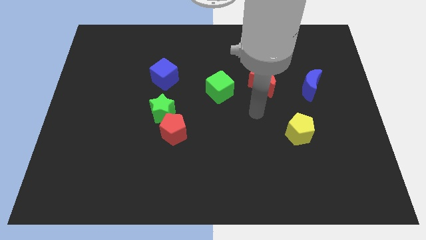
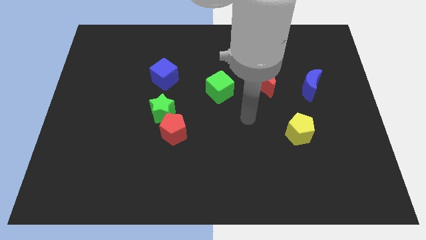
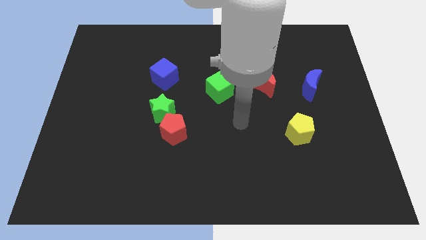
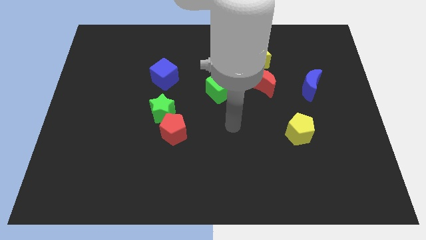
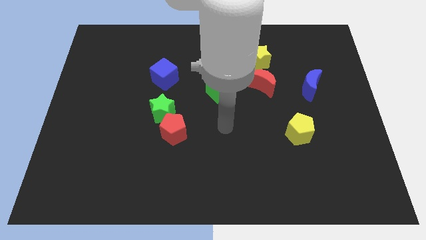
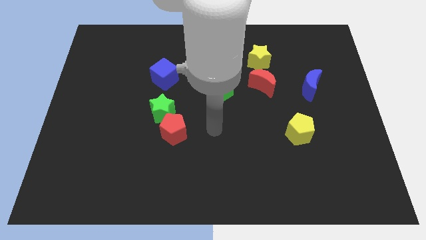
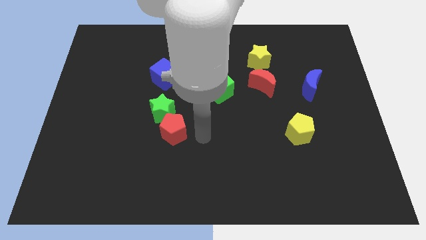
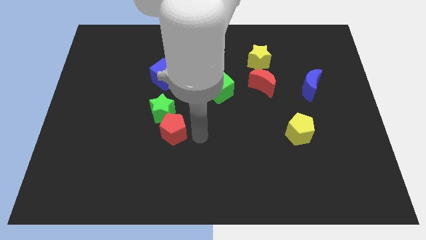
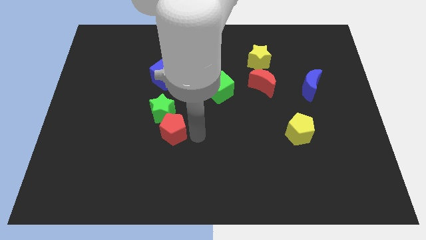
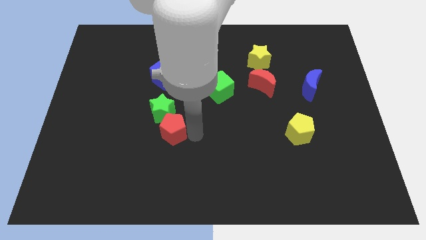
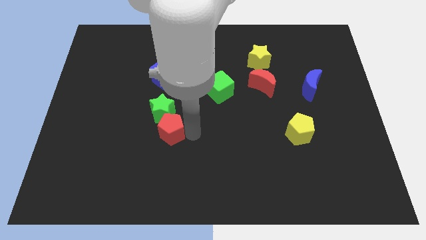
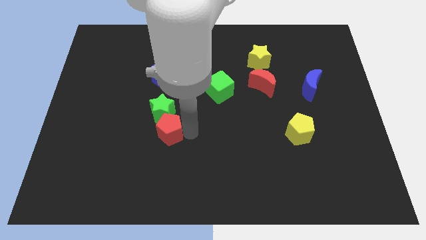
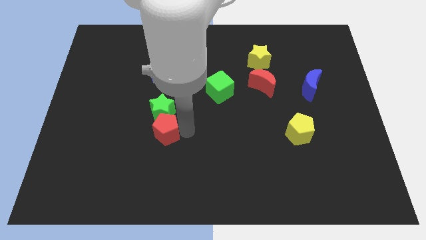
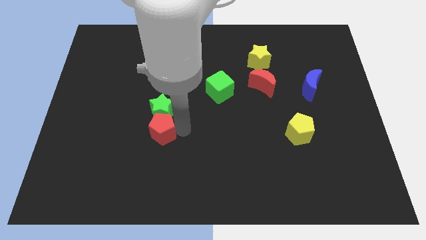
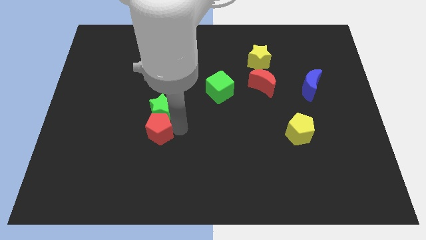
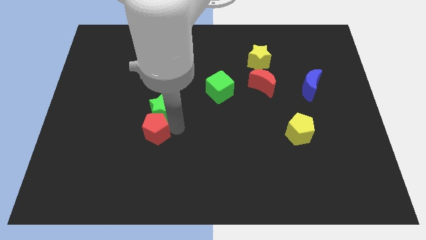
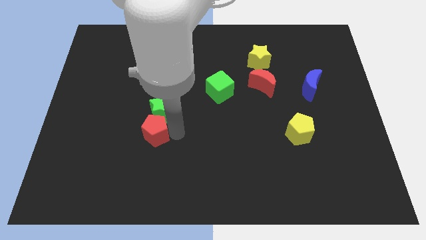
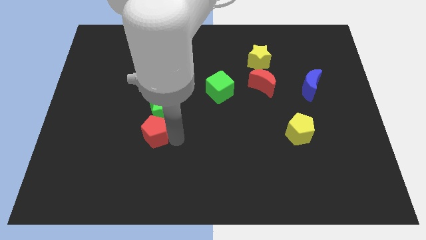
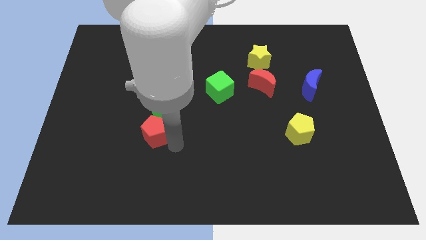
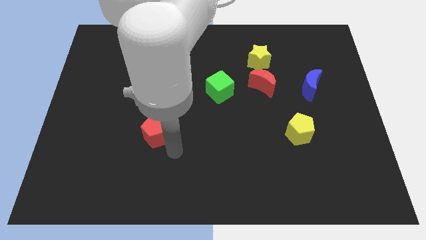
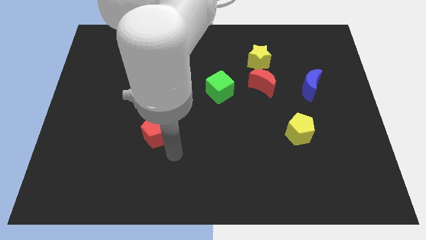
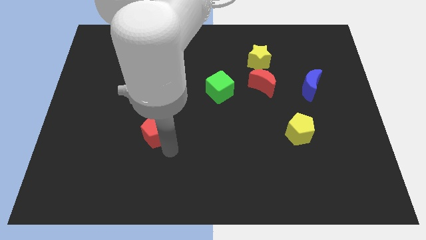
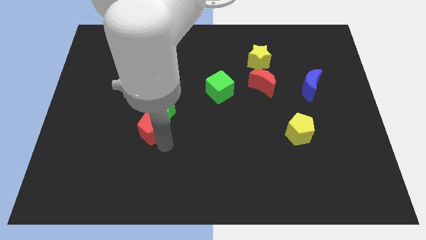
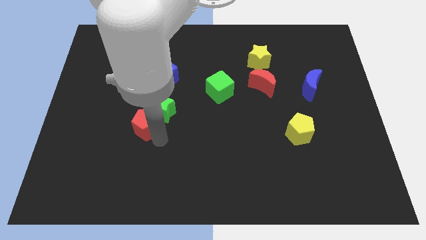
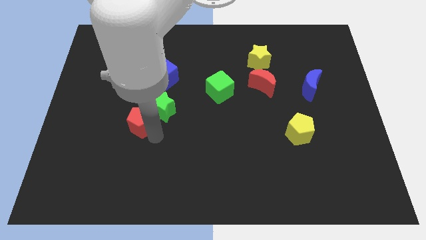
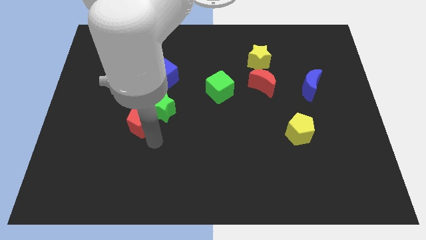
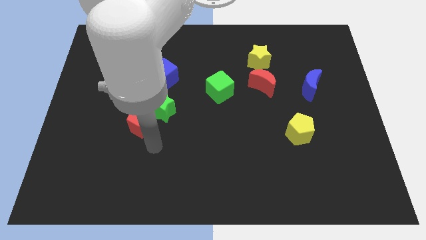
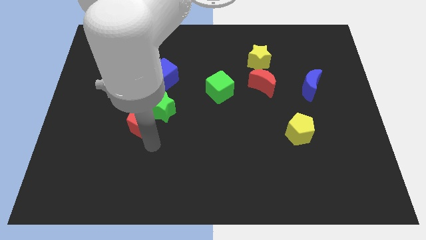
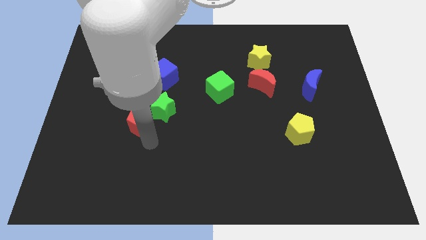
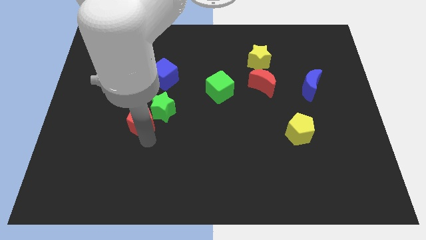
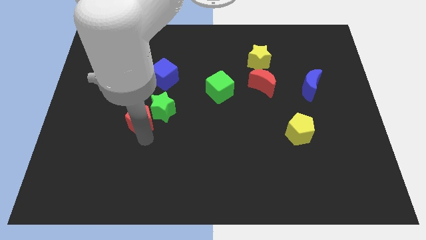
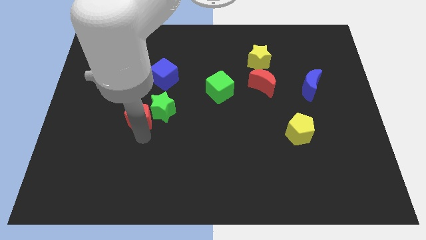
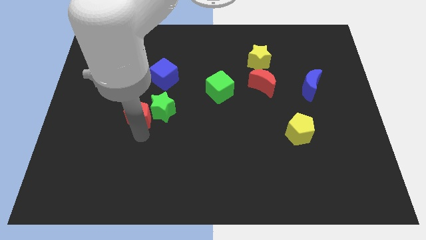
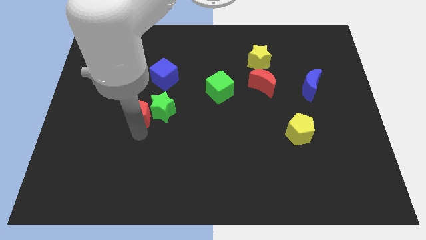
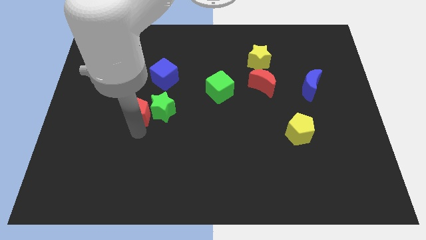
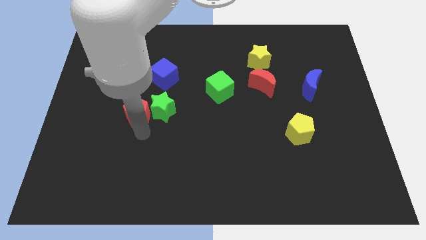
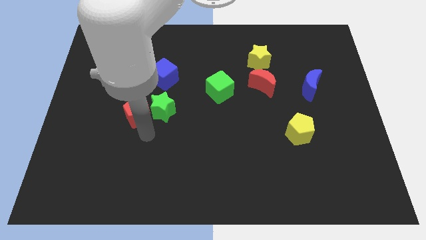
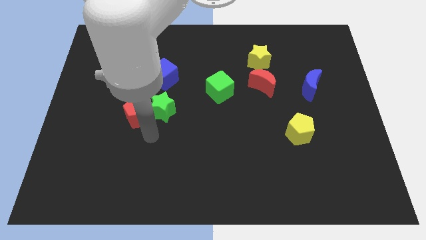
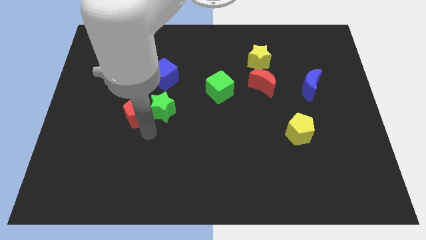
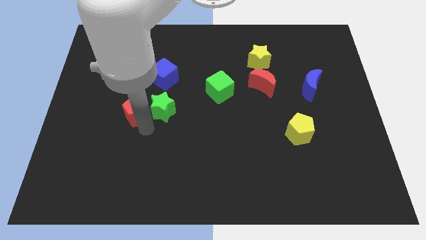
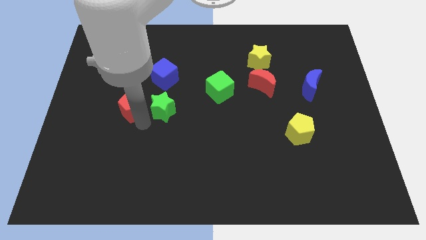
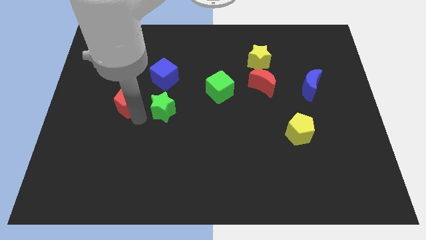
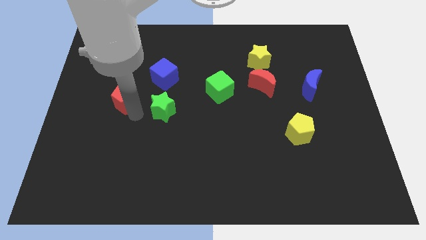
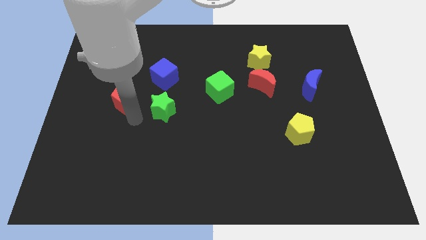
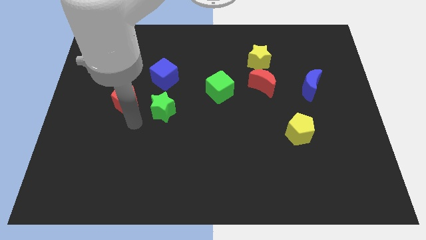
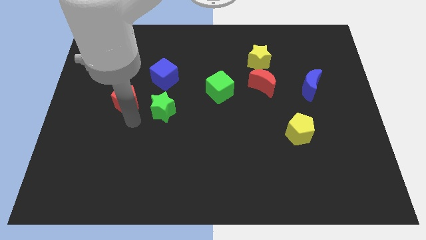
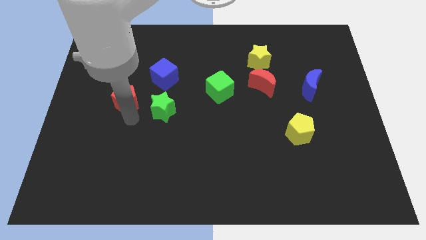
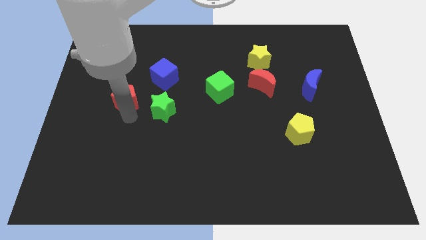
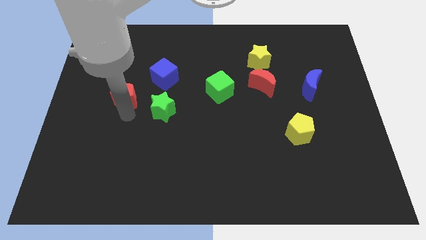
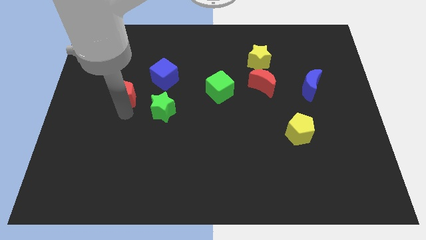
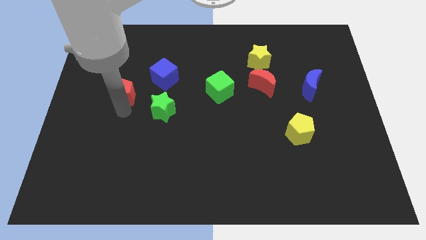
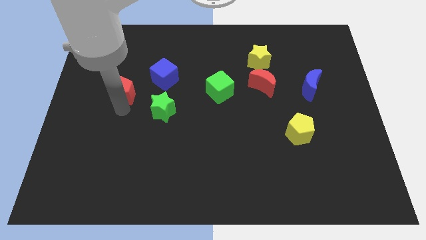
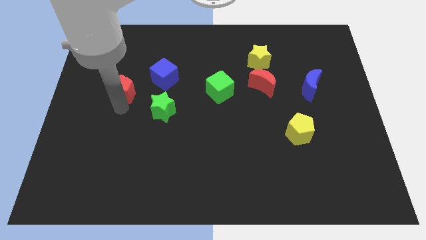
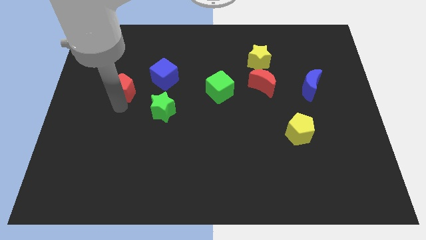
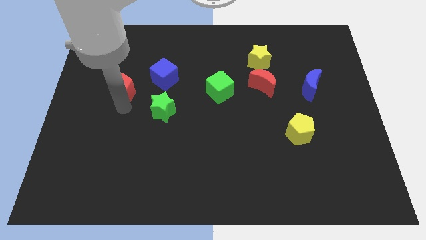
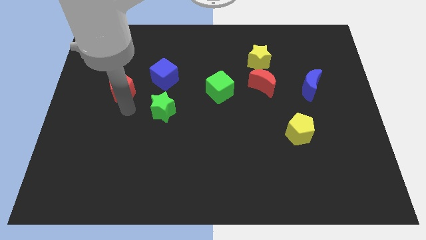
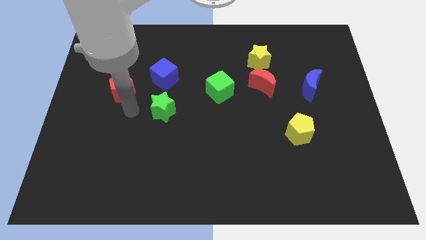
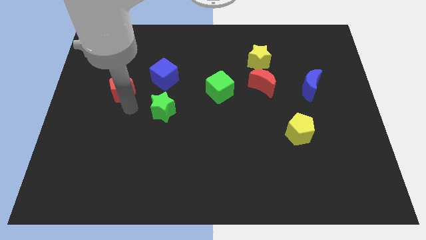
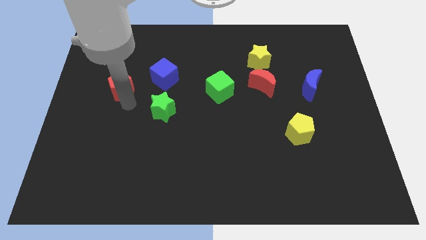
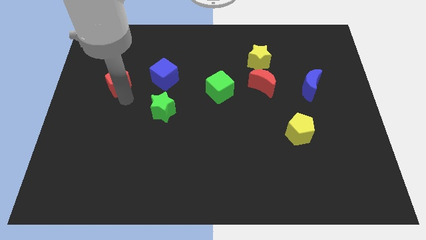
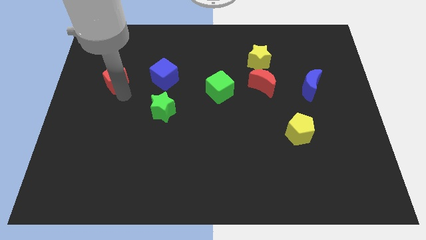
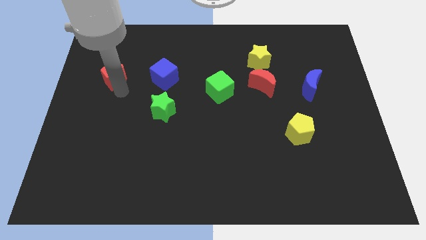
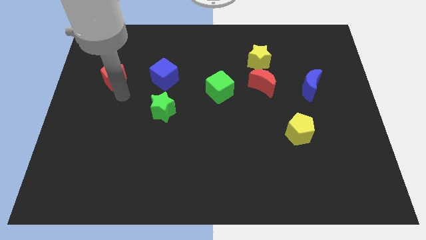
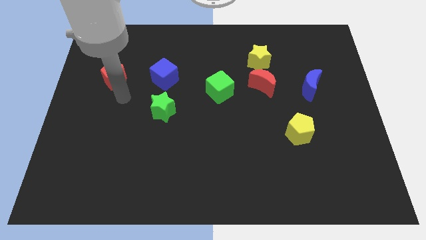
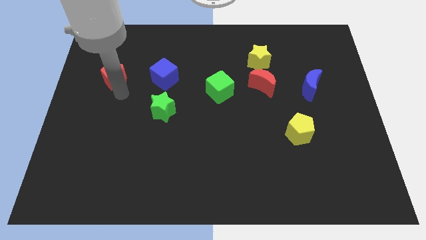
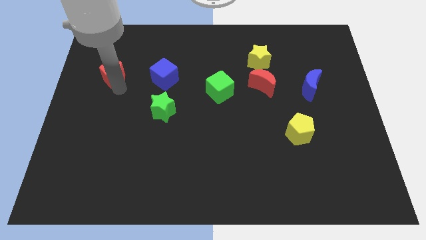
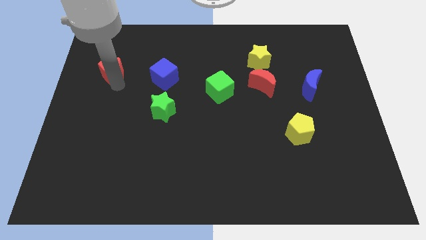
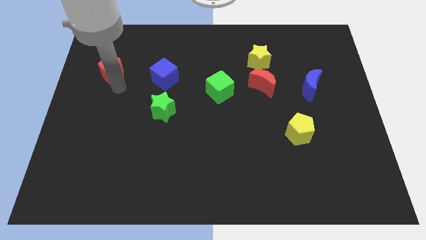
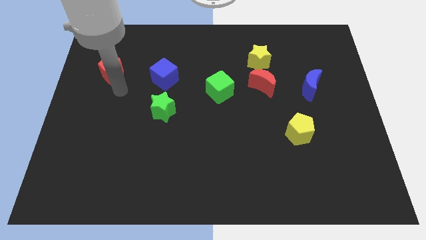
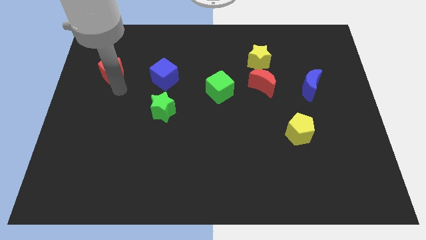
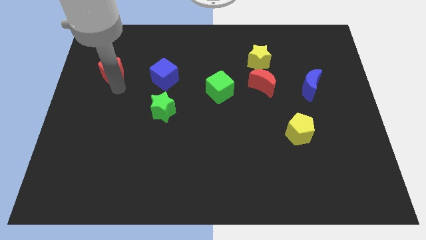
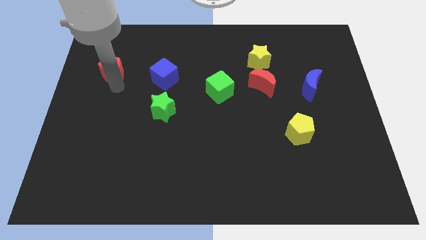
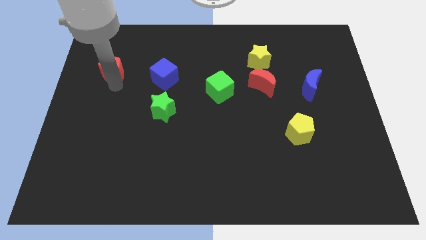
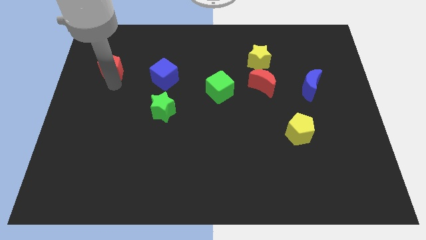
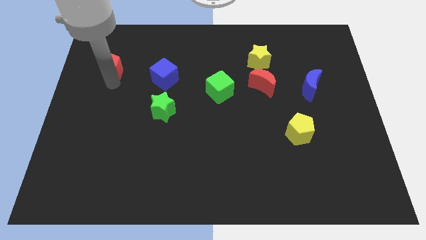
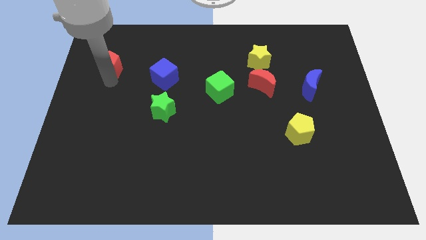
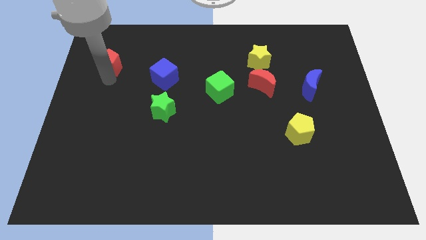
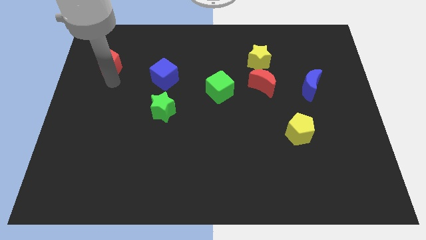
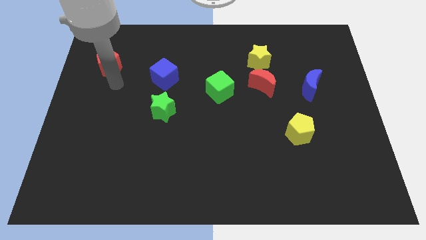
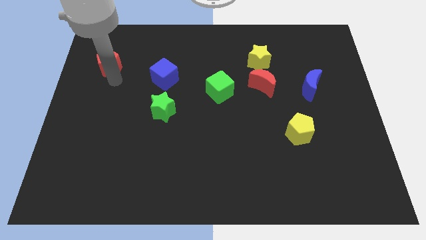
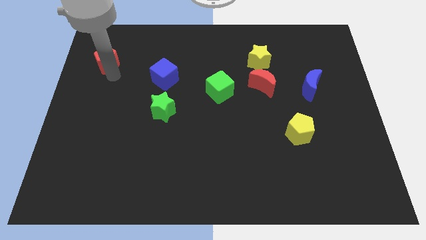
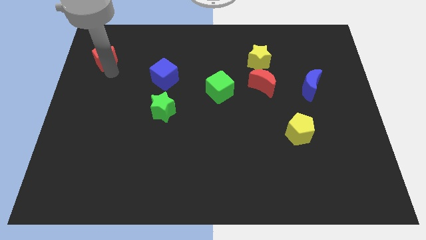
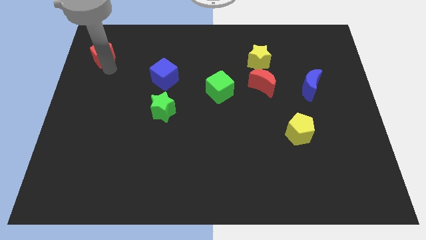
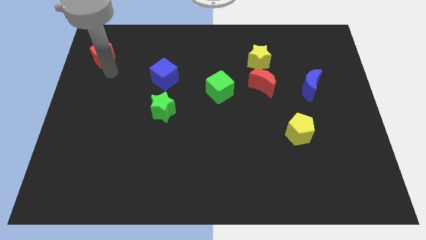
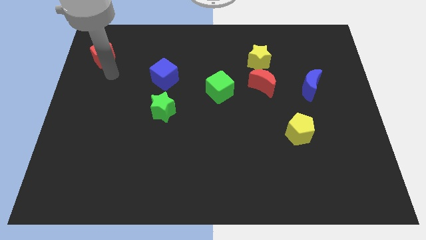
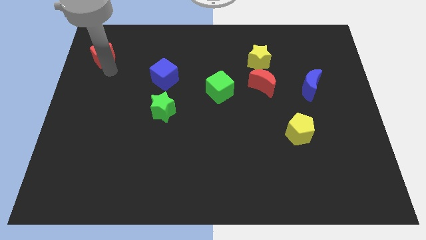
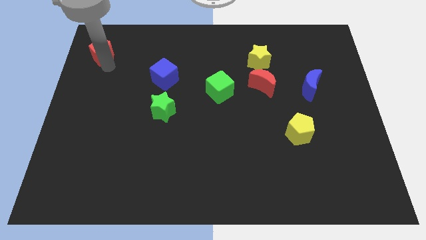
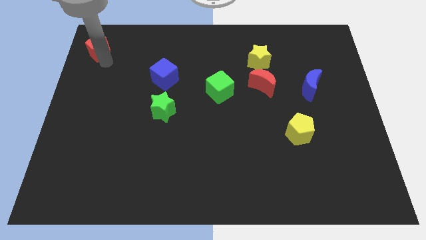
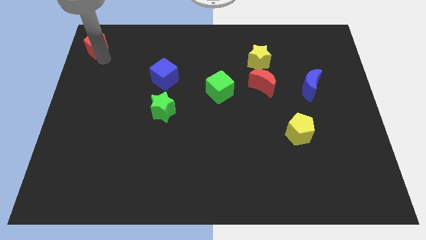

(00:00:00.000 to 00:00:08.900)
push the red pentagon to the upper left corner
